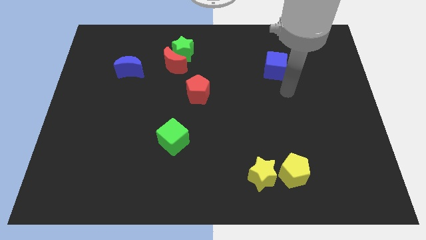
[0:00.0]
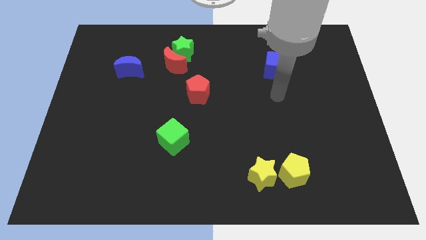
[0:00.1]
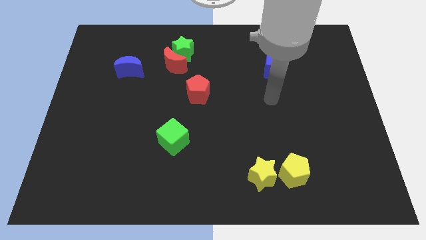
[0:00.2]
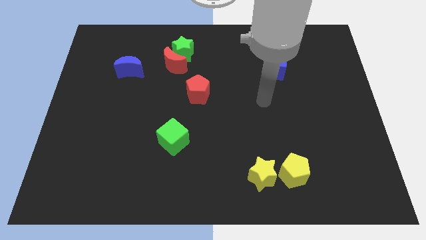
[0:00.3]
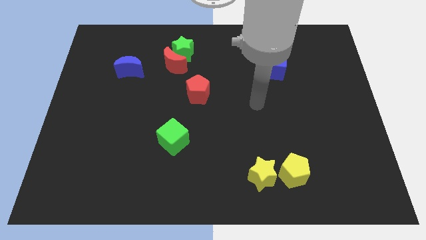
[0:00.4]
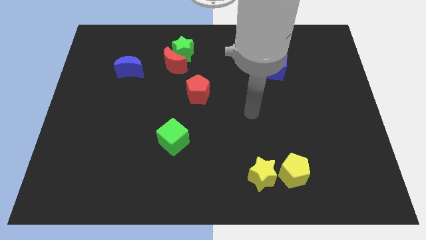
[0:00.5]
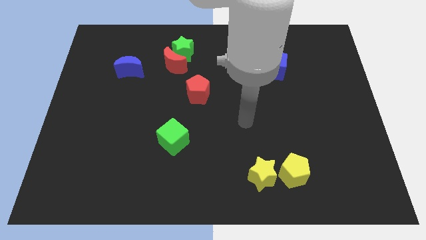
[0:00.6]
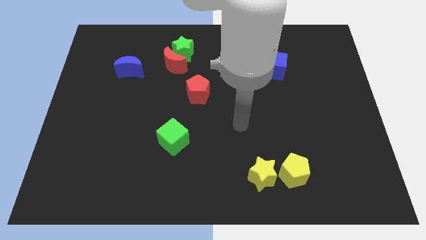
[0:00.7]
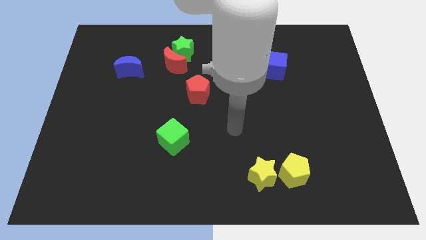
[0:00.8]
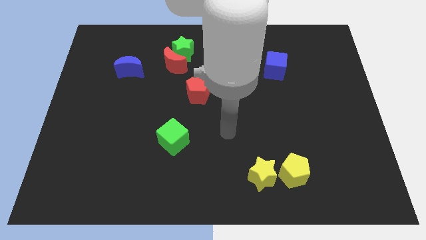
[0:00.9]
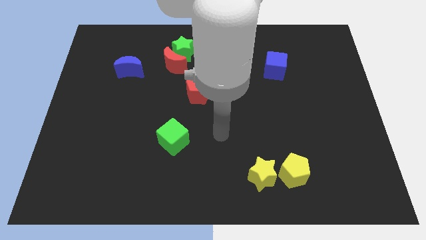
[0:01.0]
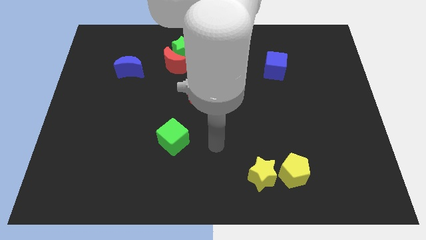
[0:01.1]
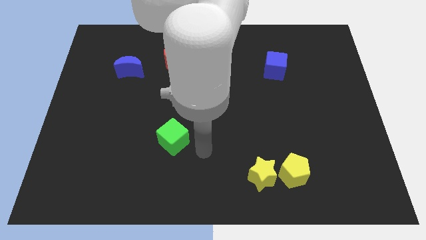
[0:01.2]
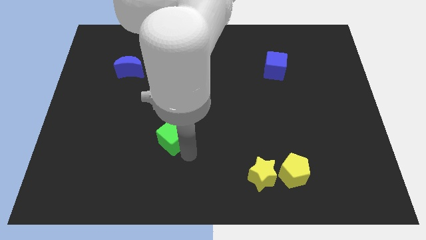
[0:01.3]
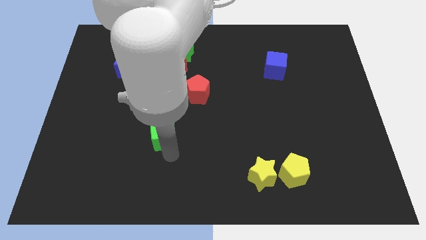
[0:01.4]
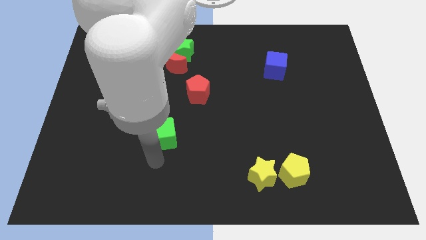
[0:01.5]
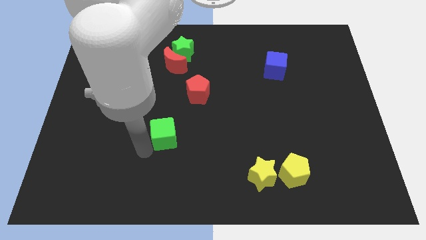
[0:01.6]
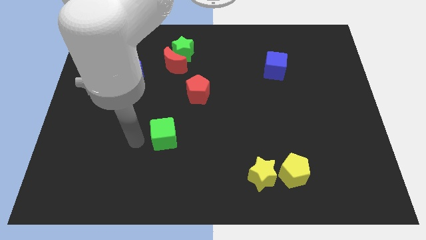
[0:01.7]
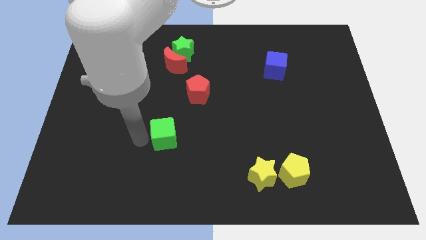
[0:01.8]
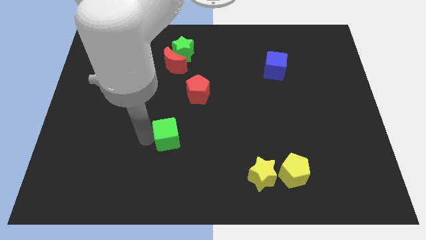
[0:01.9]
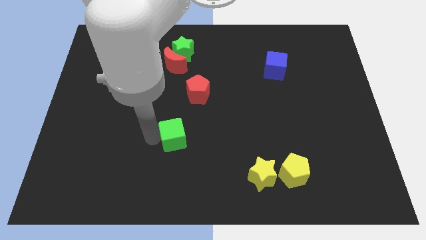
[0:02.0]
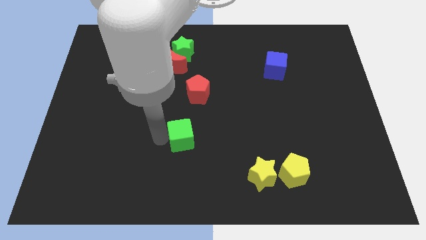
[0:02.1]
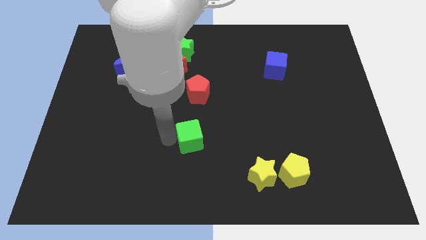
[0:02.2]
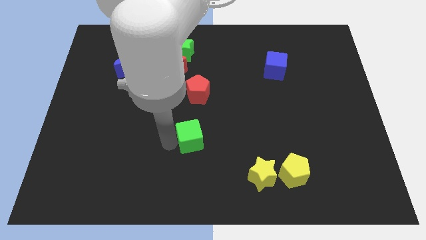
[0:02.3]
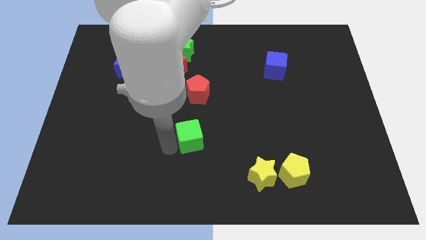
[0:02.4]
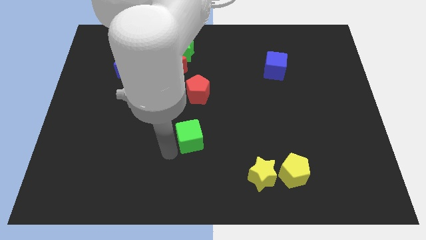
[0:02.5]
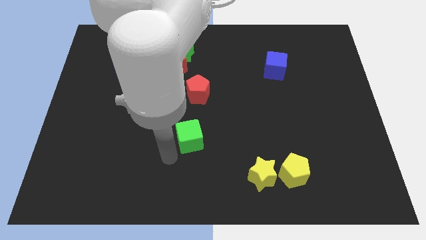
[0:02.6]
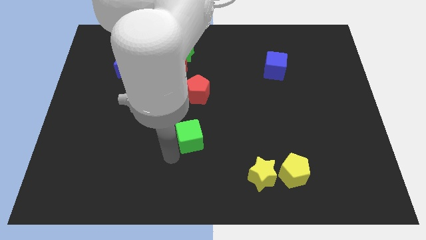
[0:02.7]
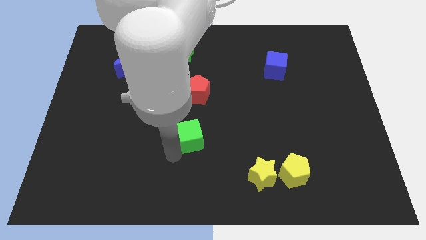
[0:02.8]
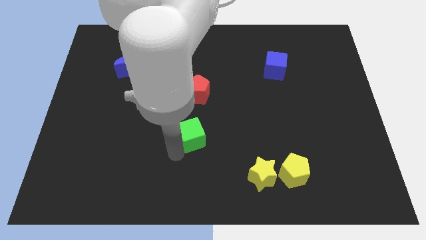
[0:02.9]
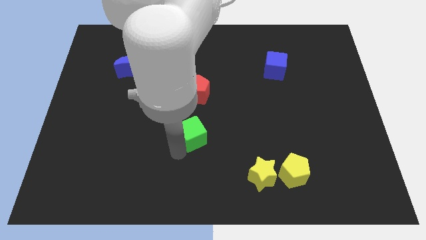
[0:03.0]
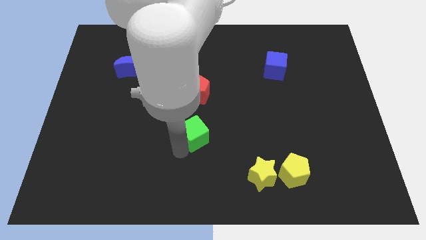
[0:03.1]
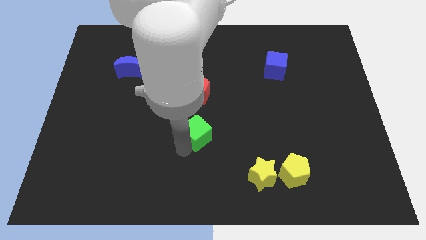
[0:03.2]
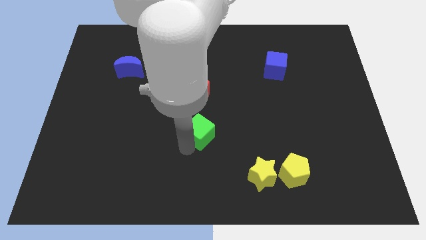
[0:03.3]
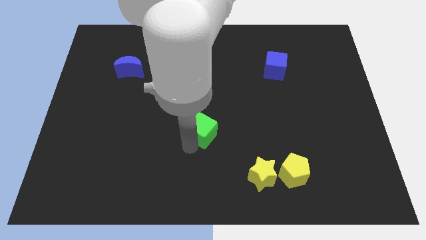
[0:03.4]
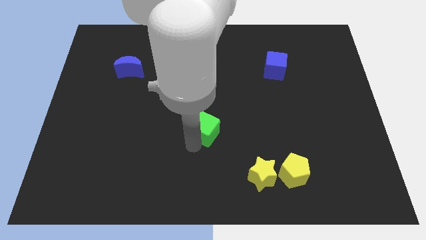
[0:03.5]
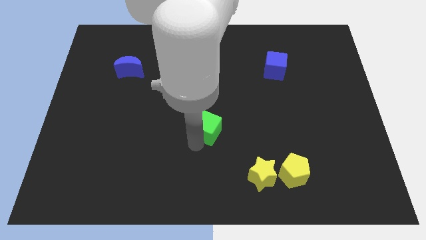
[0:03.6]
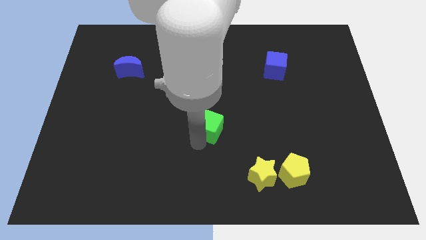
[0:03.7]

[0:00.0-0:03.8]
slide the green cube a little up and then right

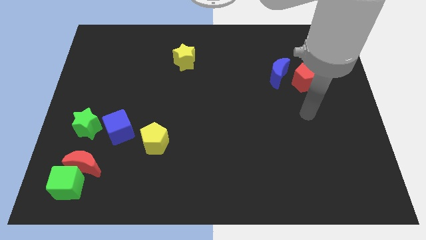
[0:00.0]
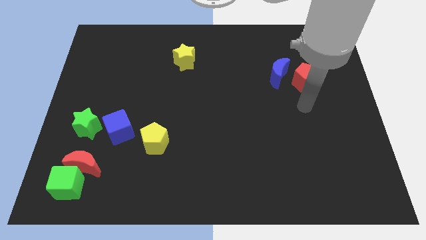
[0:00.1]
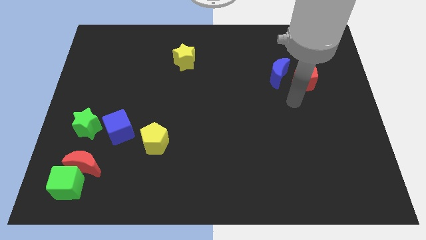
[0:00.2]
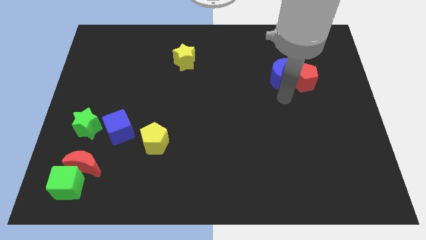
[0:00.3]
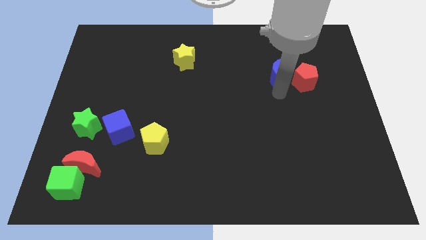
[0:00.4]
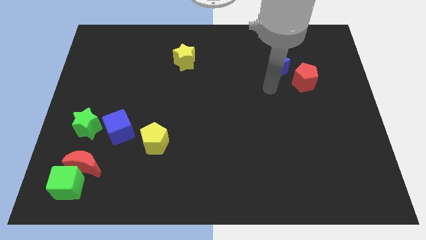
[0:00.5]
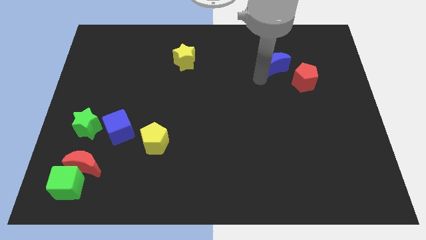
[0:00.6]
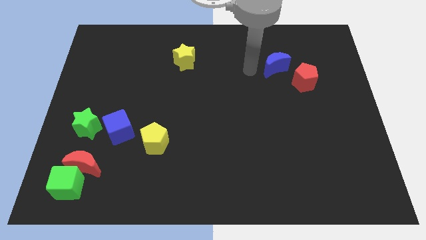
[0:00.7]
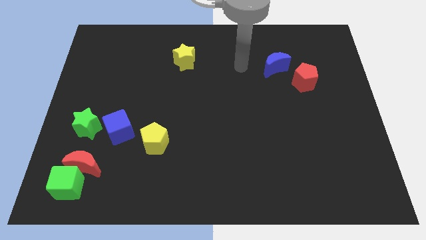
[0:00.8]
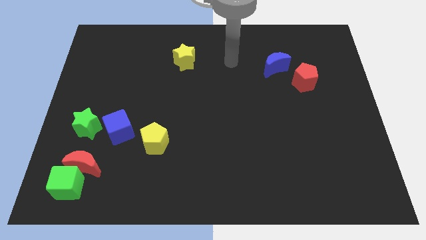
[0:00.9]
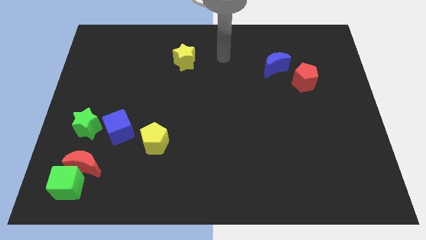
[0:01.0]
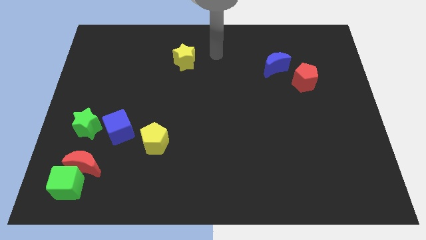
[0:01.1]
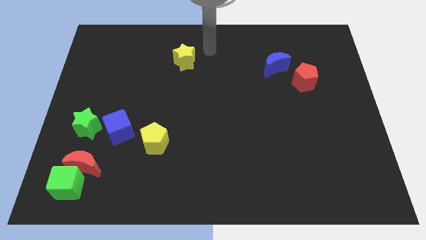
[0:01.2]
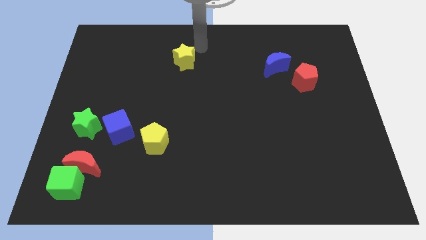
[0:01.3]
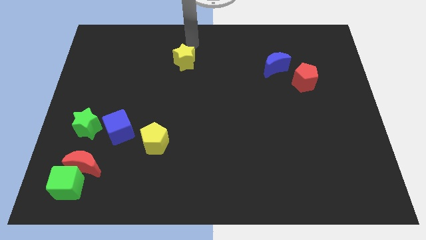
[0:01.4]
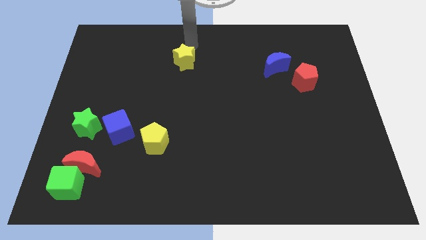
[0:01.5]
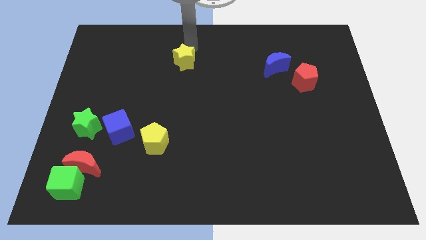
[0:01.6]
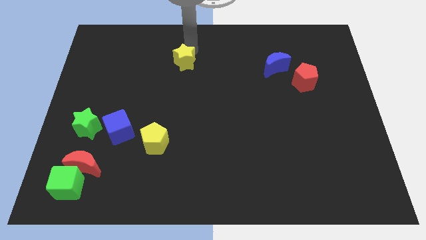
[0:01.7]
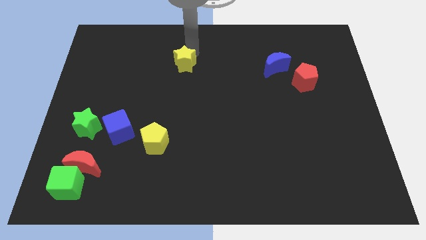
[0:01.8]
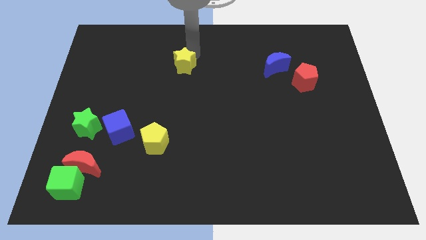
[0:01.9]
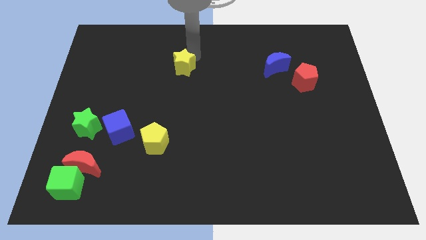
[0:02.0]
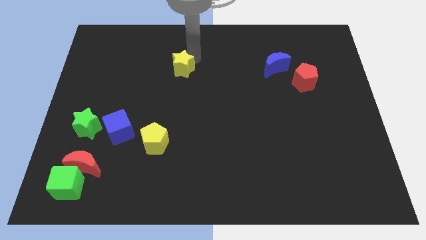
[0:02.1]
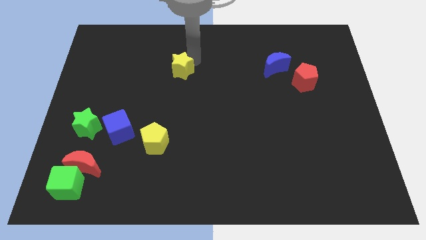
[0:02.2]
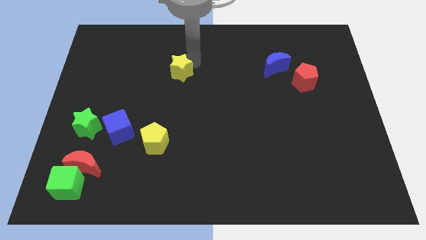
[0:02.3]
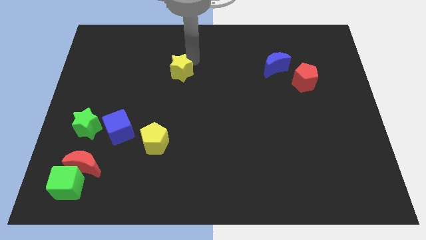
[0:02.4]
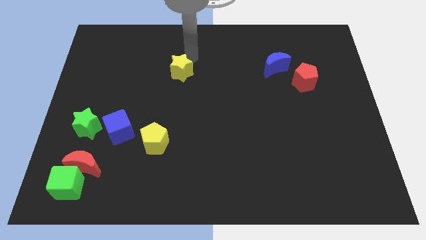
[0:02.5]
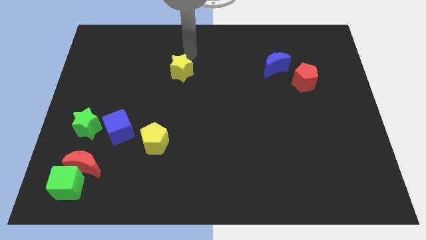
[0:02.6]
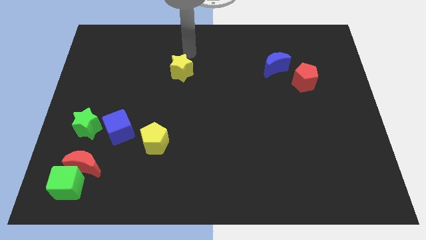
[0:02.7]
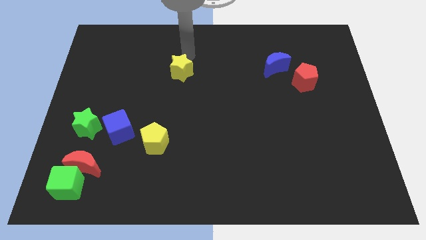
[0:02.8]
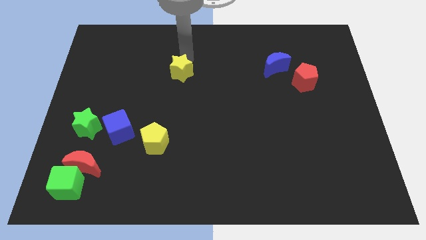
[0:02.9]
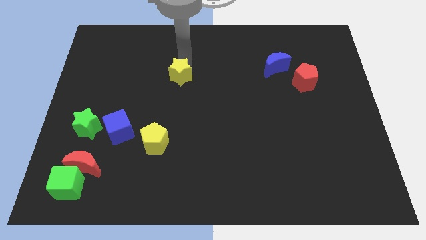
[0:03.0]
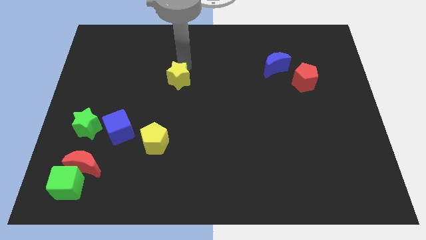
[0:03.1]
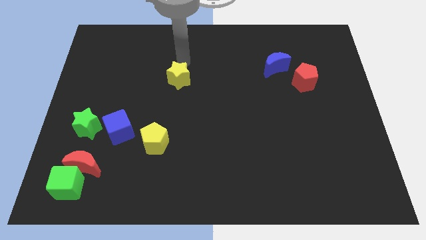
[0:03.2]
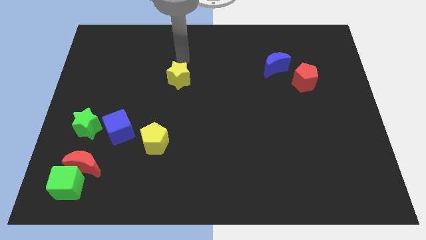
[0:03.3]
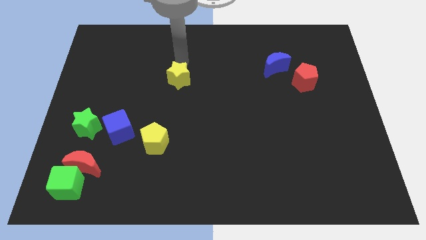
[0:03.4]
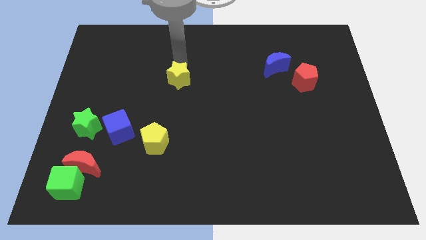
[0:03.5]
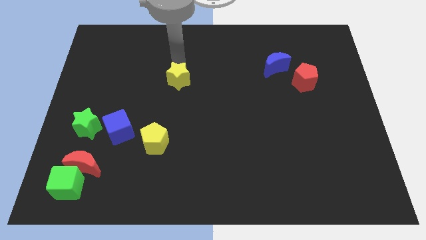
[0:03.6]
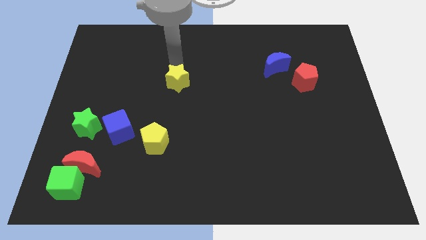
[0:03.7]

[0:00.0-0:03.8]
slightly slide the yellow star downwards

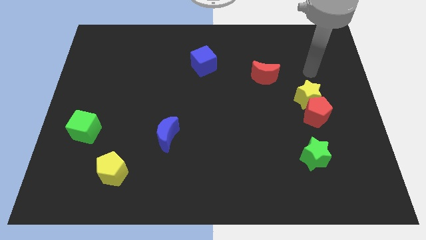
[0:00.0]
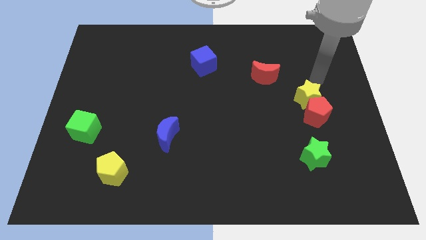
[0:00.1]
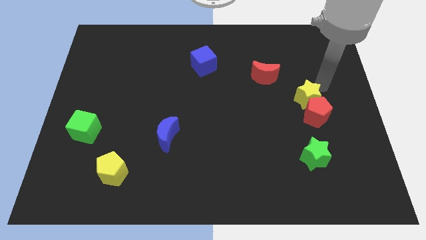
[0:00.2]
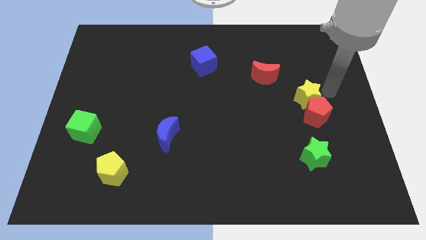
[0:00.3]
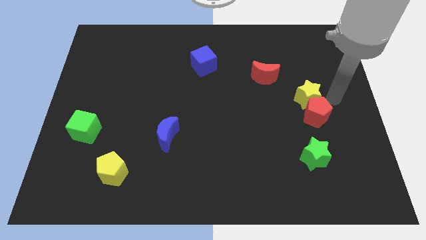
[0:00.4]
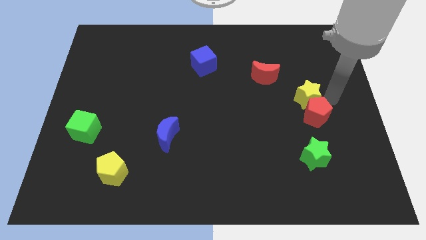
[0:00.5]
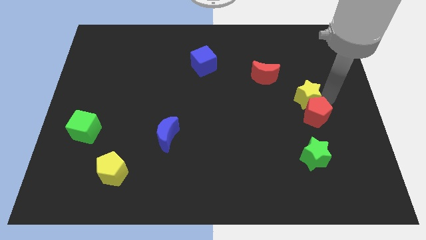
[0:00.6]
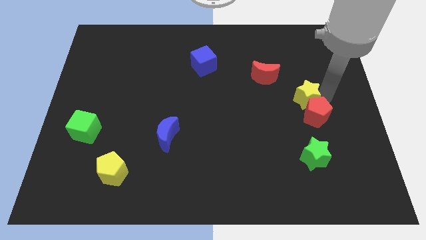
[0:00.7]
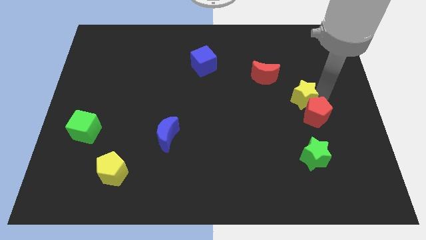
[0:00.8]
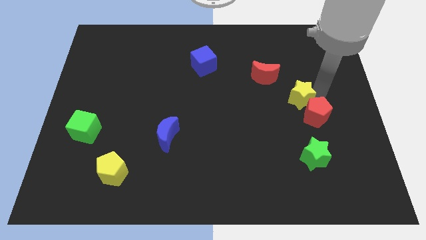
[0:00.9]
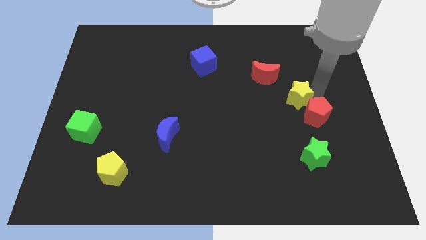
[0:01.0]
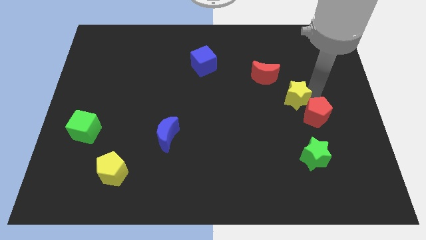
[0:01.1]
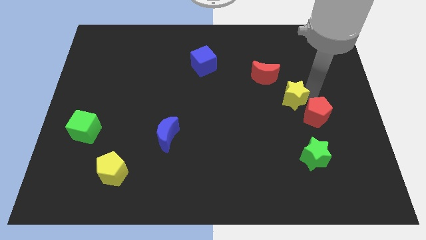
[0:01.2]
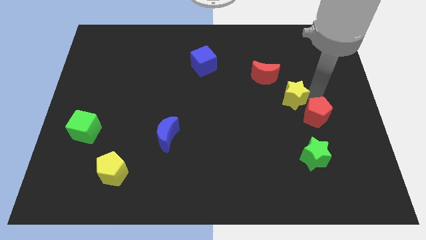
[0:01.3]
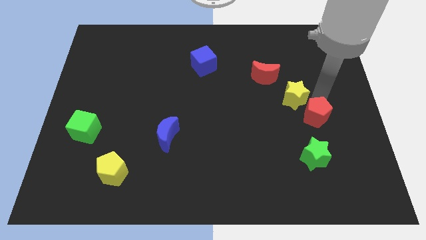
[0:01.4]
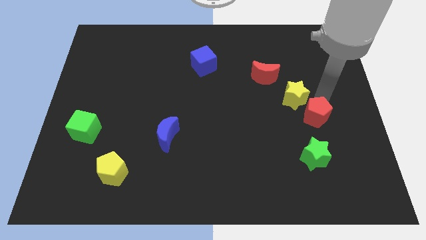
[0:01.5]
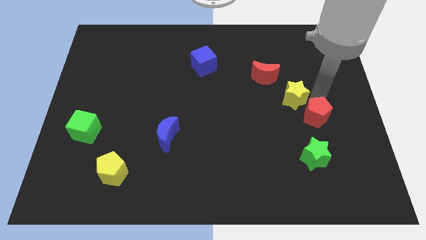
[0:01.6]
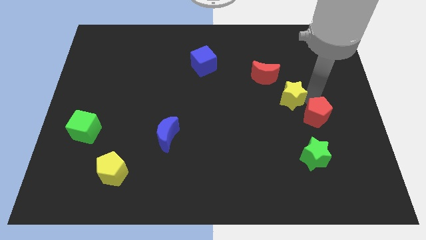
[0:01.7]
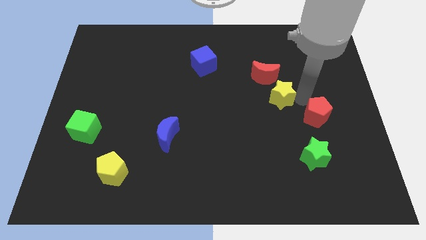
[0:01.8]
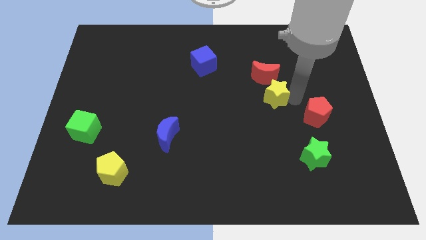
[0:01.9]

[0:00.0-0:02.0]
slide the yellow star slightly left
